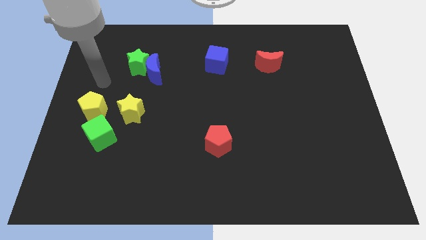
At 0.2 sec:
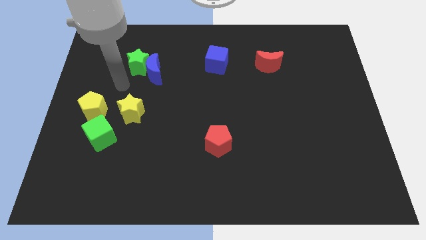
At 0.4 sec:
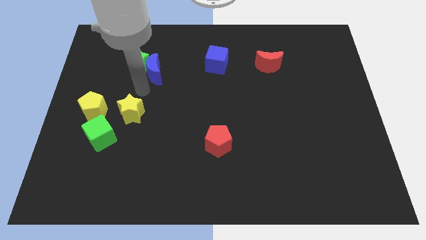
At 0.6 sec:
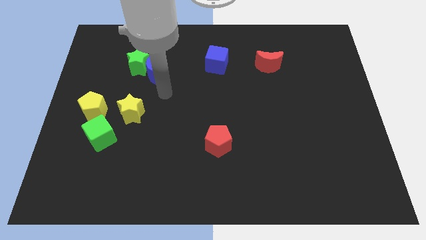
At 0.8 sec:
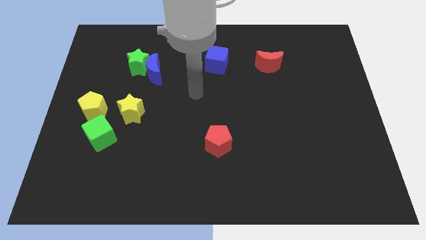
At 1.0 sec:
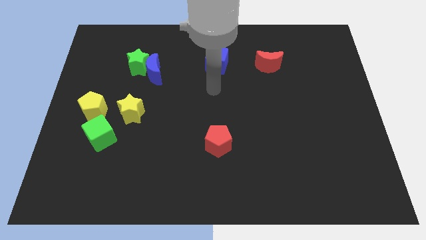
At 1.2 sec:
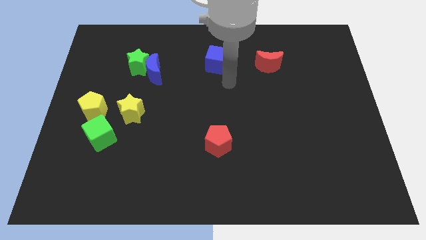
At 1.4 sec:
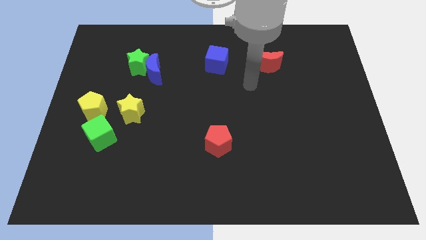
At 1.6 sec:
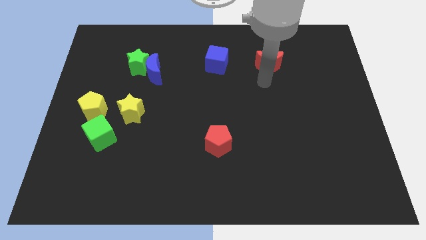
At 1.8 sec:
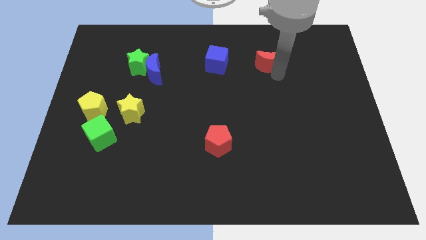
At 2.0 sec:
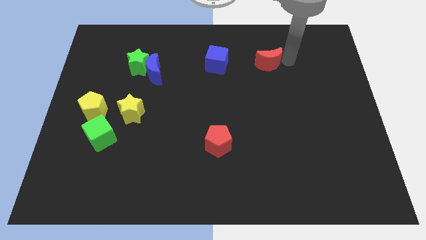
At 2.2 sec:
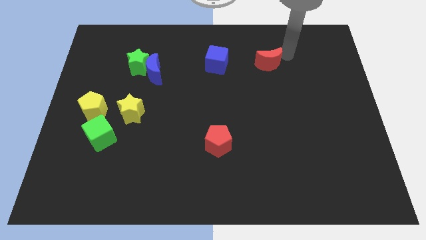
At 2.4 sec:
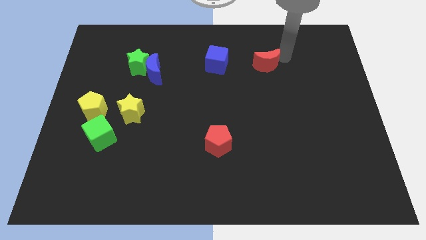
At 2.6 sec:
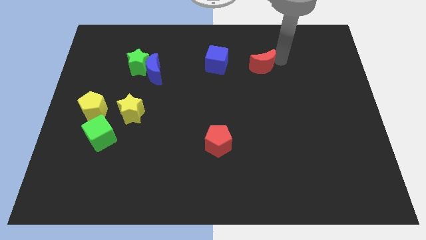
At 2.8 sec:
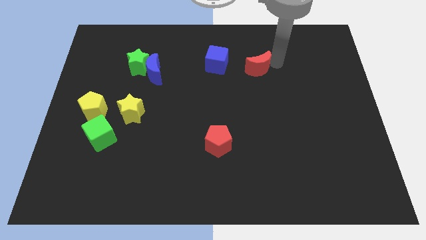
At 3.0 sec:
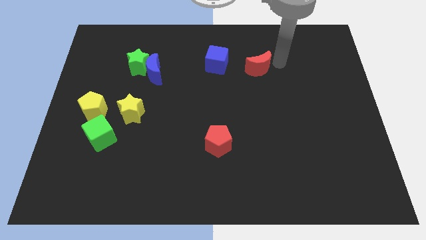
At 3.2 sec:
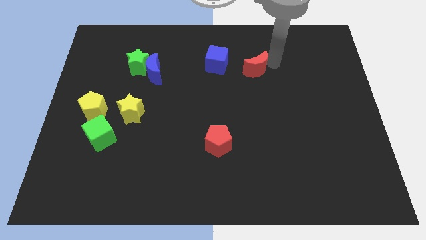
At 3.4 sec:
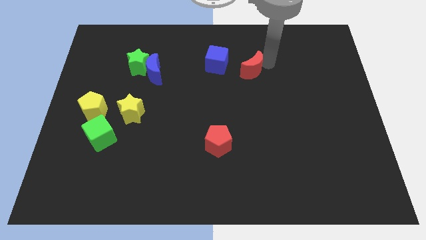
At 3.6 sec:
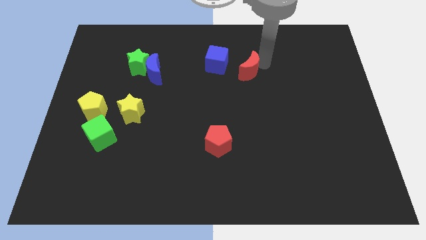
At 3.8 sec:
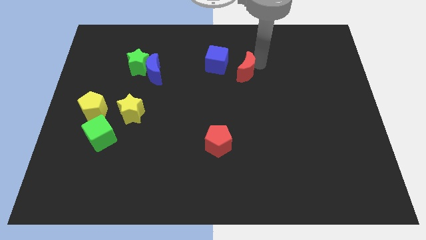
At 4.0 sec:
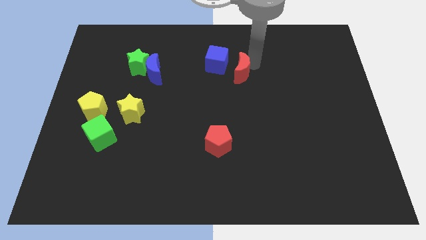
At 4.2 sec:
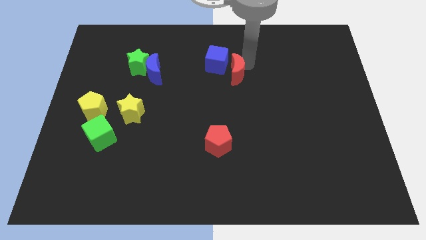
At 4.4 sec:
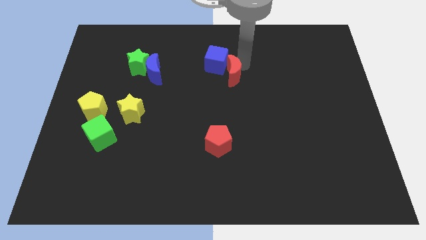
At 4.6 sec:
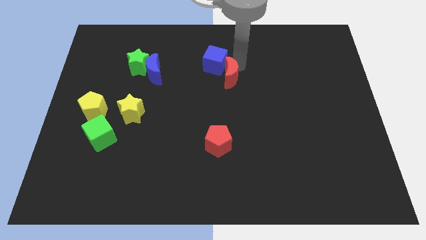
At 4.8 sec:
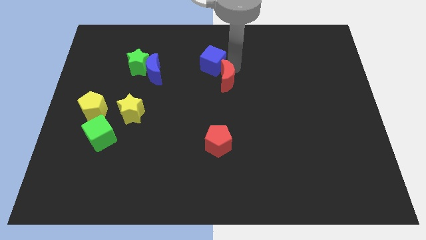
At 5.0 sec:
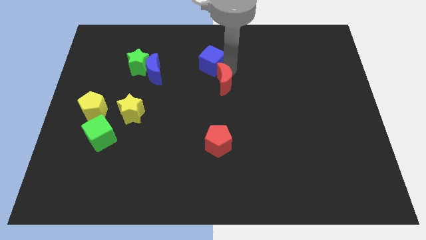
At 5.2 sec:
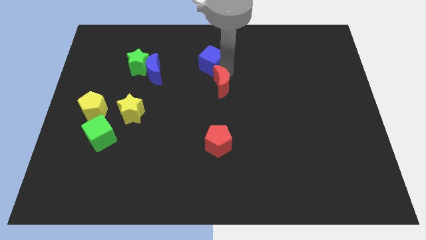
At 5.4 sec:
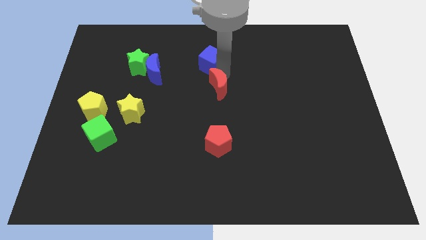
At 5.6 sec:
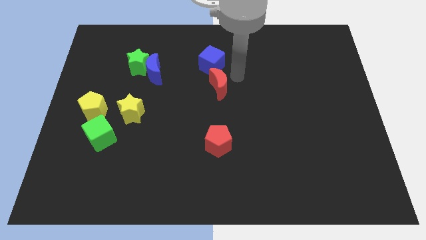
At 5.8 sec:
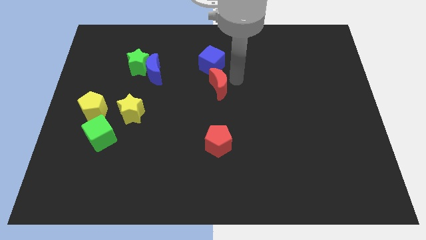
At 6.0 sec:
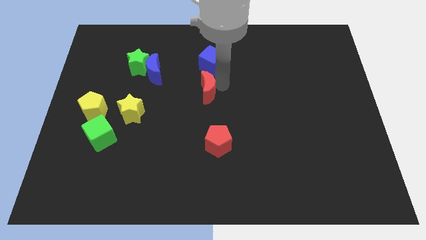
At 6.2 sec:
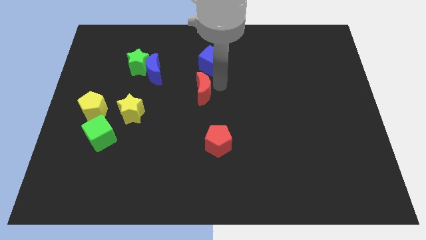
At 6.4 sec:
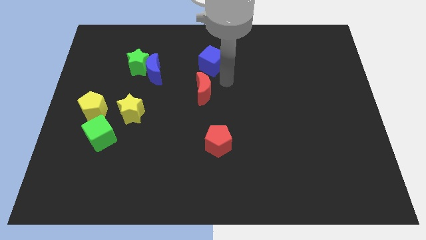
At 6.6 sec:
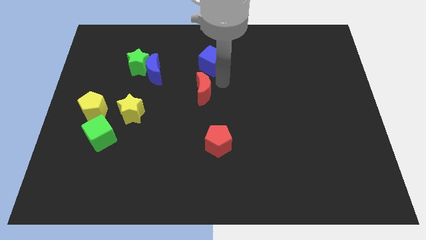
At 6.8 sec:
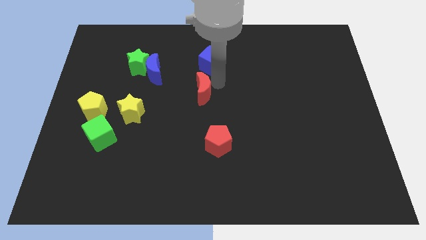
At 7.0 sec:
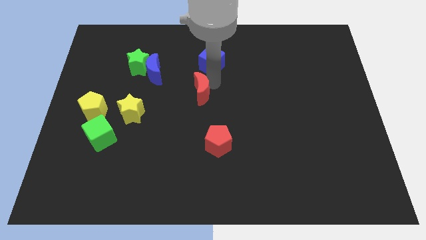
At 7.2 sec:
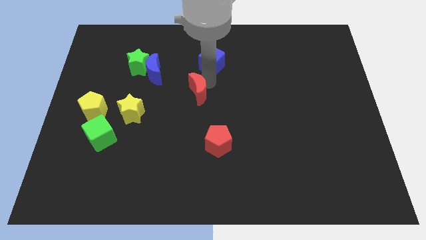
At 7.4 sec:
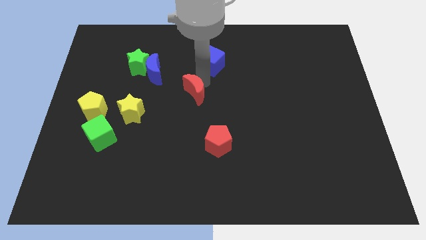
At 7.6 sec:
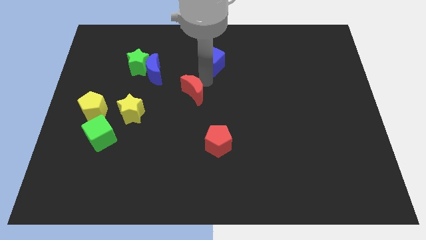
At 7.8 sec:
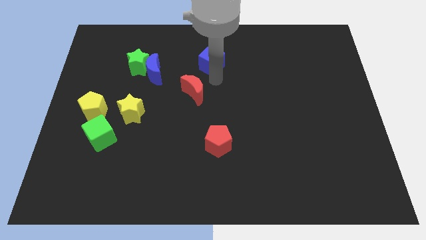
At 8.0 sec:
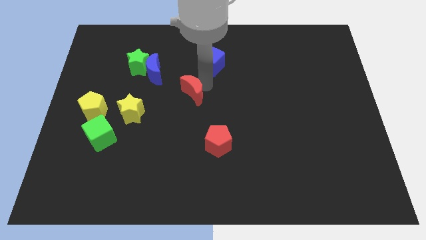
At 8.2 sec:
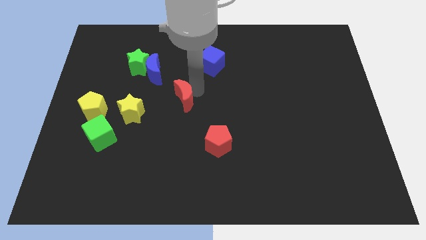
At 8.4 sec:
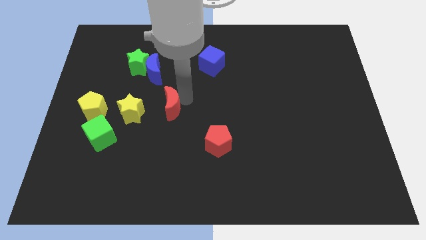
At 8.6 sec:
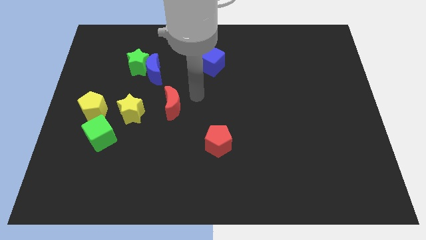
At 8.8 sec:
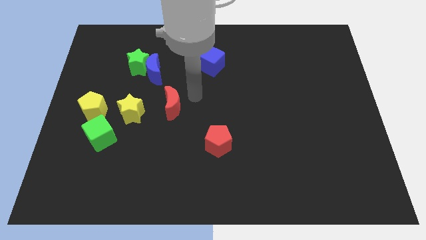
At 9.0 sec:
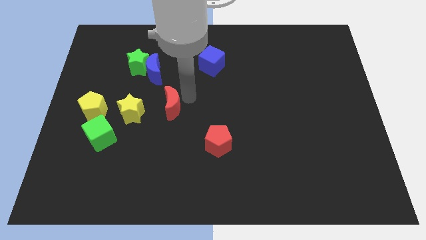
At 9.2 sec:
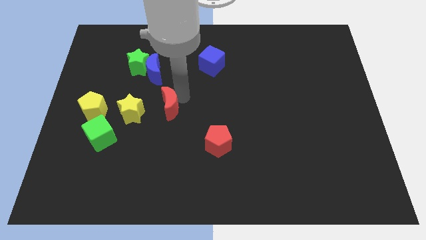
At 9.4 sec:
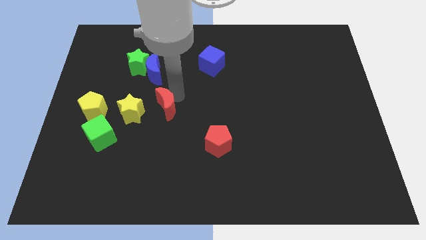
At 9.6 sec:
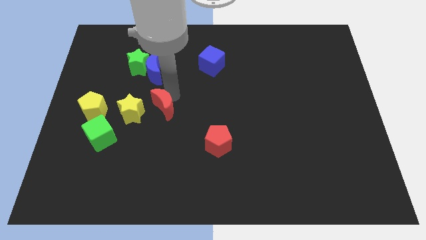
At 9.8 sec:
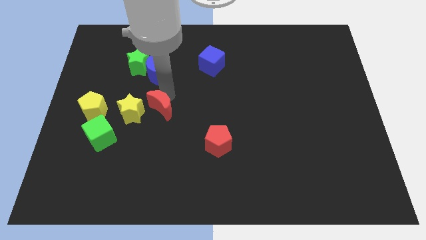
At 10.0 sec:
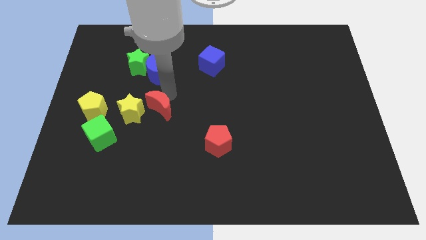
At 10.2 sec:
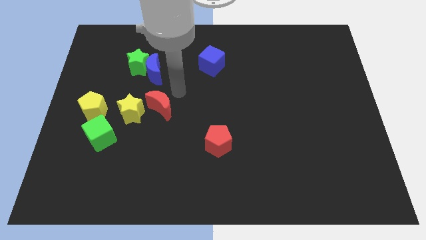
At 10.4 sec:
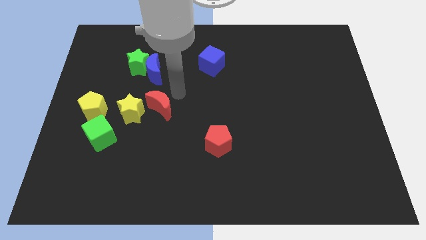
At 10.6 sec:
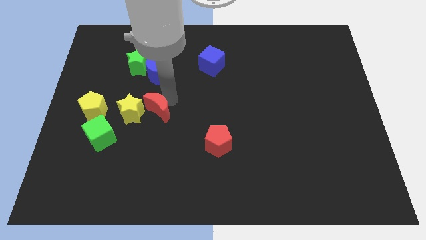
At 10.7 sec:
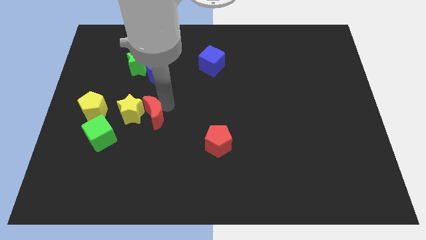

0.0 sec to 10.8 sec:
move the red moon close to the yellow star

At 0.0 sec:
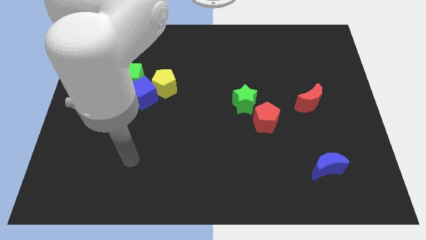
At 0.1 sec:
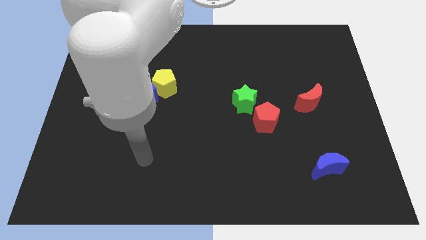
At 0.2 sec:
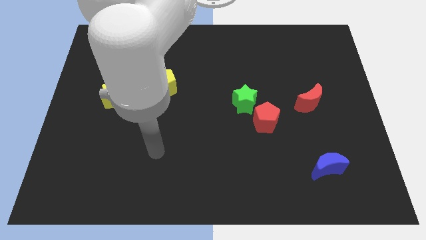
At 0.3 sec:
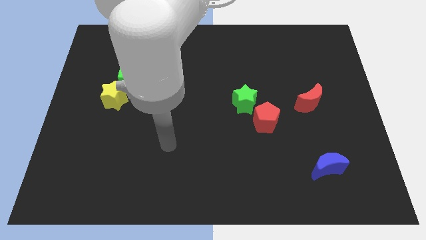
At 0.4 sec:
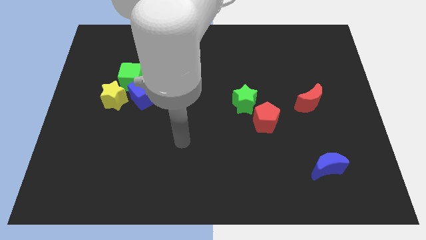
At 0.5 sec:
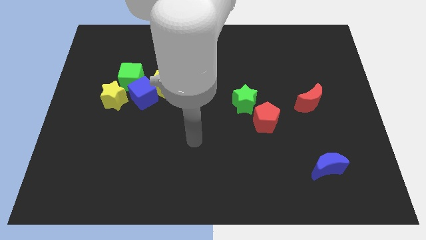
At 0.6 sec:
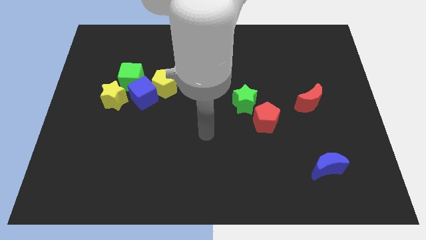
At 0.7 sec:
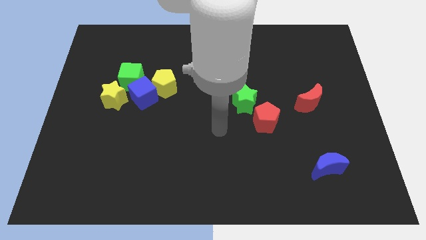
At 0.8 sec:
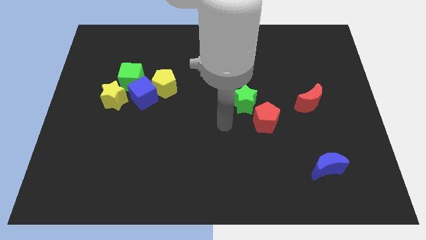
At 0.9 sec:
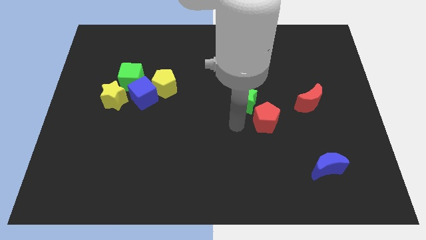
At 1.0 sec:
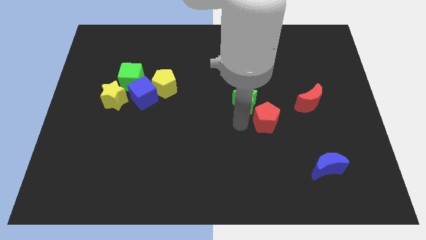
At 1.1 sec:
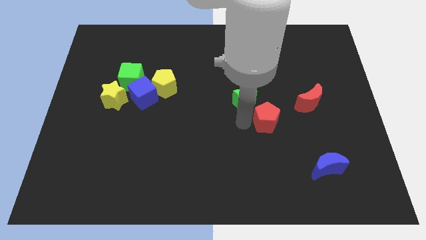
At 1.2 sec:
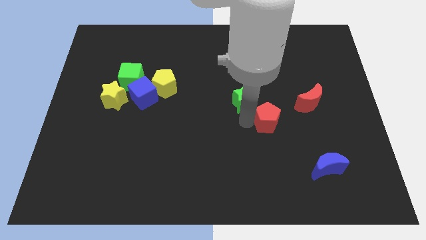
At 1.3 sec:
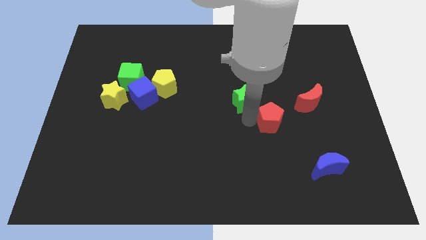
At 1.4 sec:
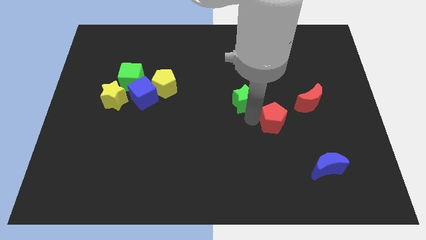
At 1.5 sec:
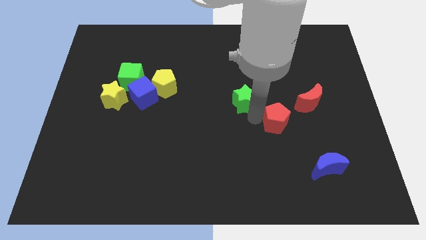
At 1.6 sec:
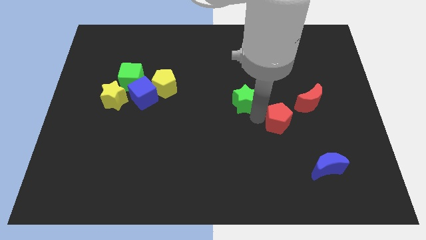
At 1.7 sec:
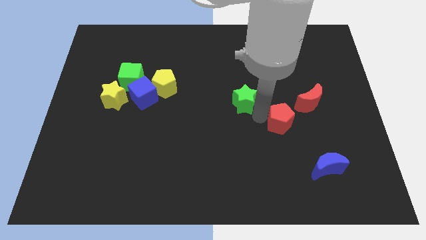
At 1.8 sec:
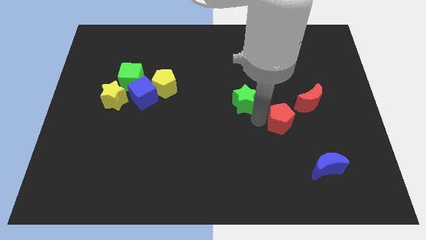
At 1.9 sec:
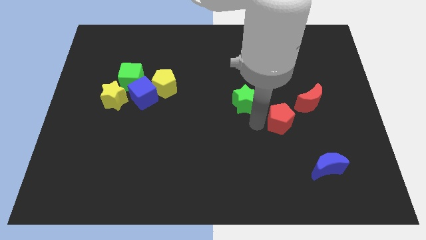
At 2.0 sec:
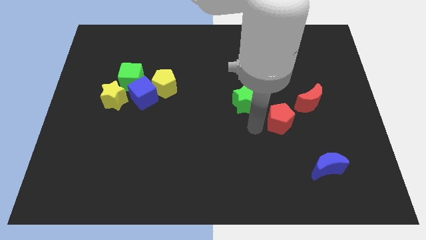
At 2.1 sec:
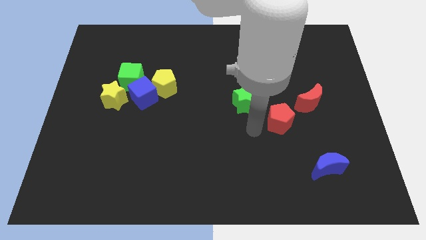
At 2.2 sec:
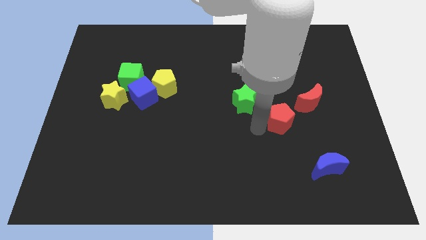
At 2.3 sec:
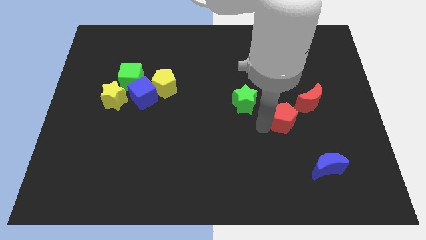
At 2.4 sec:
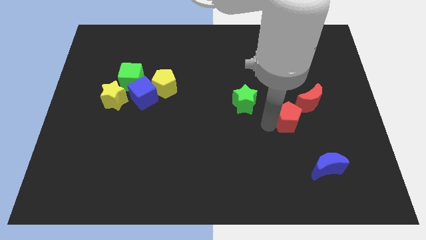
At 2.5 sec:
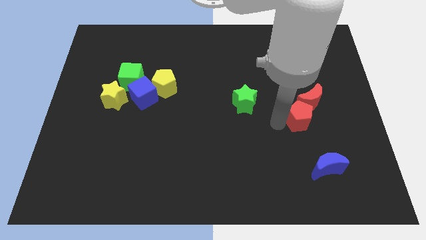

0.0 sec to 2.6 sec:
slide the red pentagon to the red moon
